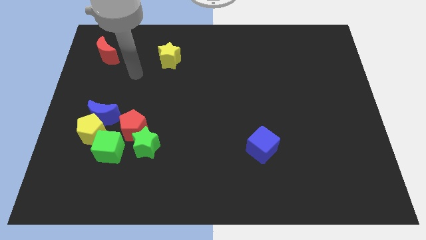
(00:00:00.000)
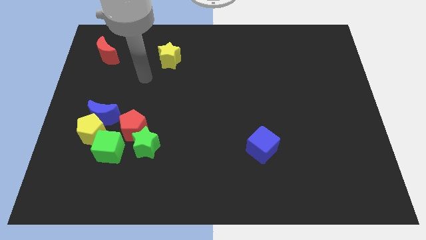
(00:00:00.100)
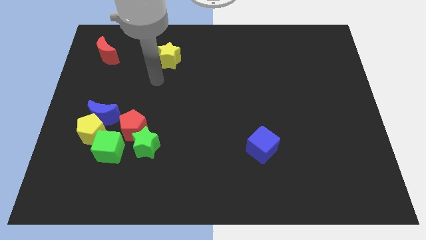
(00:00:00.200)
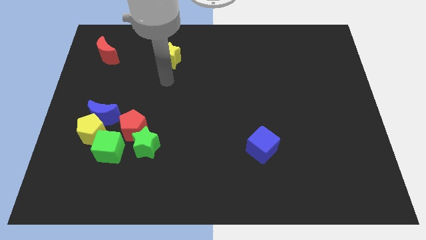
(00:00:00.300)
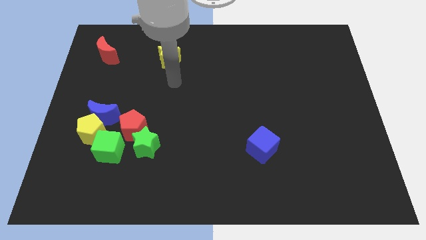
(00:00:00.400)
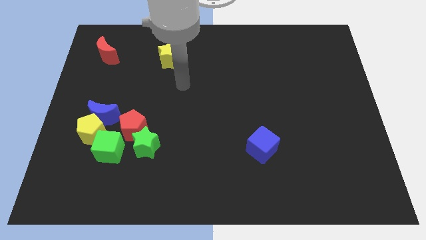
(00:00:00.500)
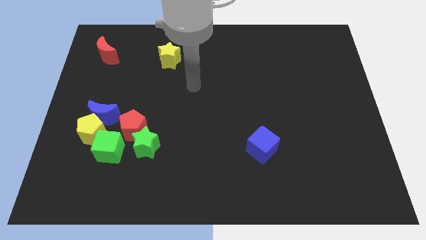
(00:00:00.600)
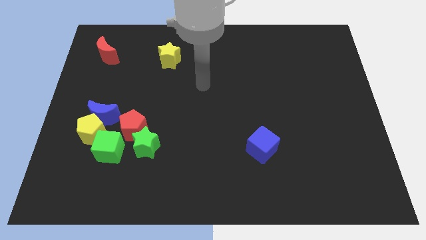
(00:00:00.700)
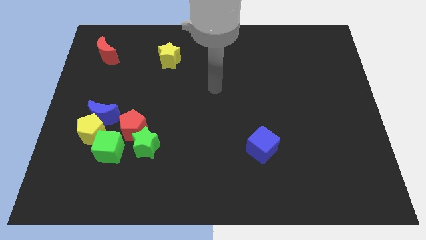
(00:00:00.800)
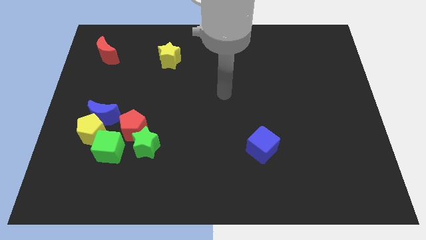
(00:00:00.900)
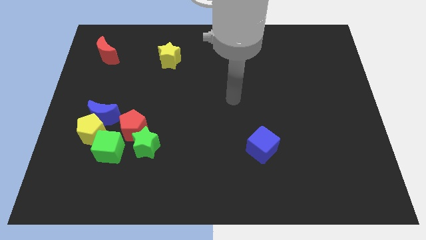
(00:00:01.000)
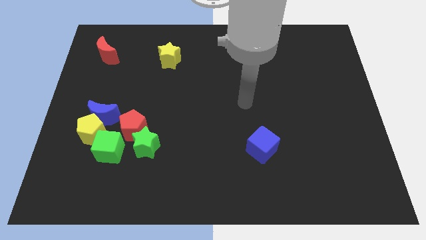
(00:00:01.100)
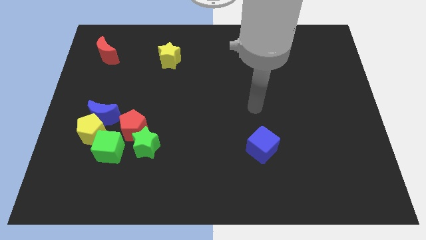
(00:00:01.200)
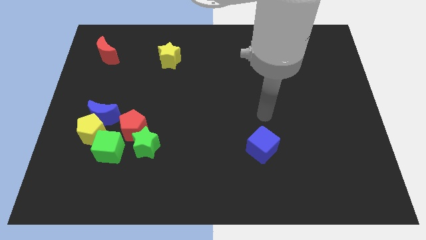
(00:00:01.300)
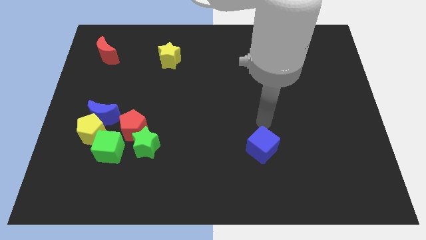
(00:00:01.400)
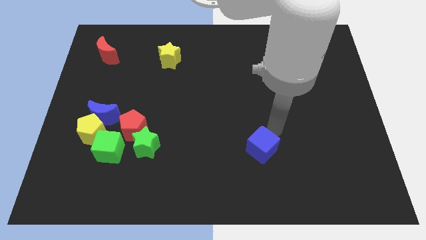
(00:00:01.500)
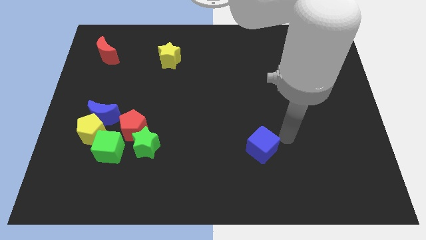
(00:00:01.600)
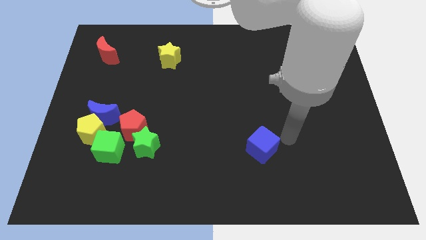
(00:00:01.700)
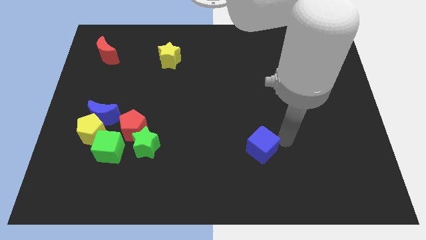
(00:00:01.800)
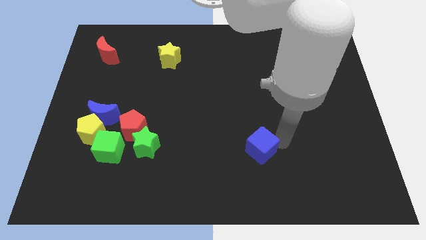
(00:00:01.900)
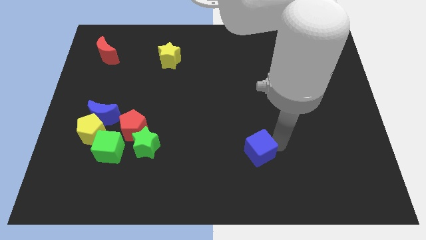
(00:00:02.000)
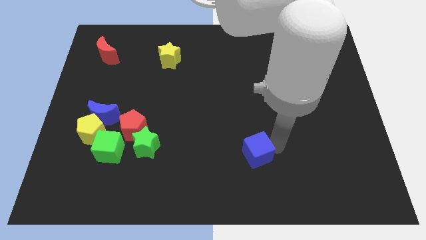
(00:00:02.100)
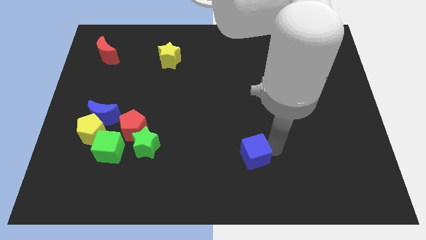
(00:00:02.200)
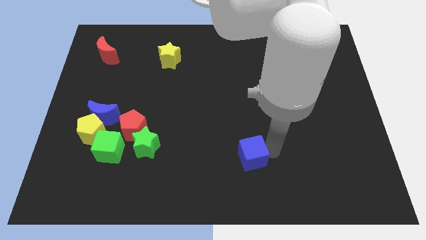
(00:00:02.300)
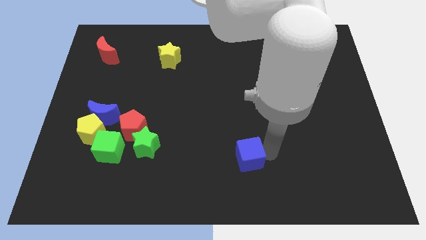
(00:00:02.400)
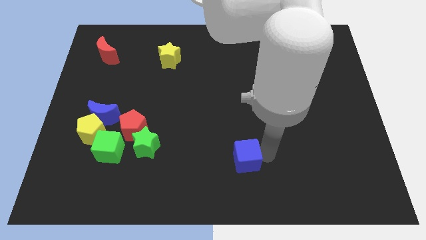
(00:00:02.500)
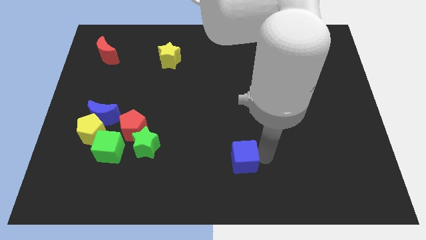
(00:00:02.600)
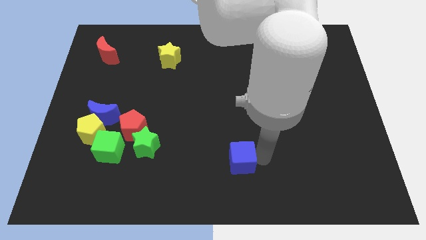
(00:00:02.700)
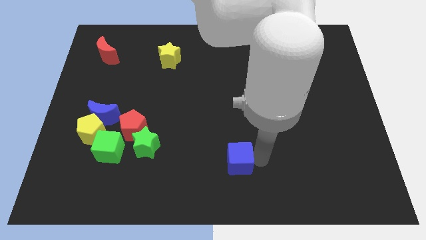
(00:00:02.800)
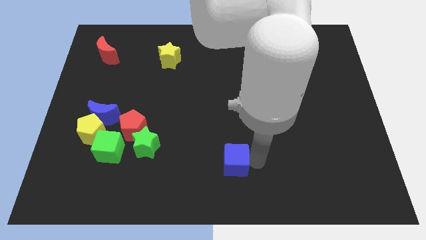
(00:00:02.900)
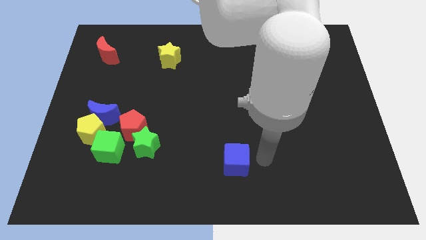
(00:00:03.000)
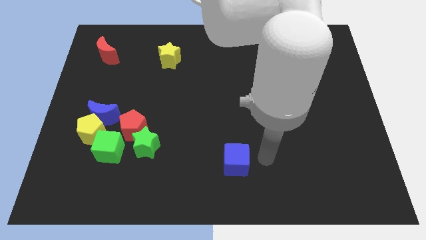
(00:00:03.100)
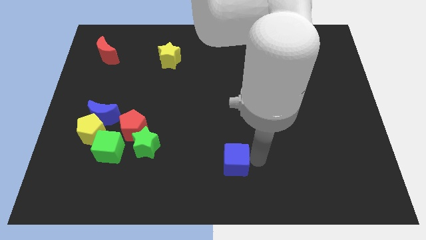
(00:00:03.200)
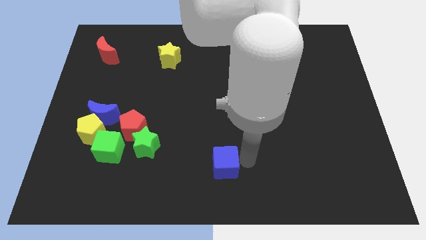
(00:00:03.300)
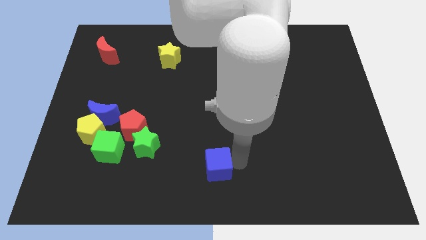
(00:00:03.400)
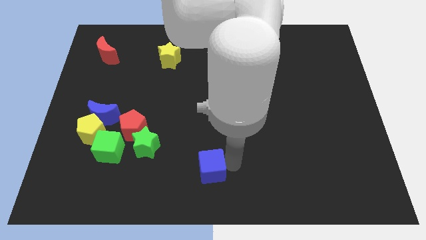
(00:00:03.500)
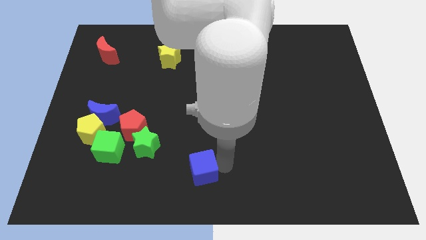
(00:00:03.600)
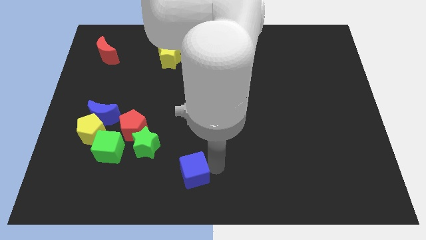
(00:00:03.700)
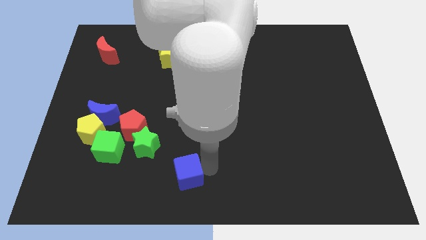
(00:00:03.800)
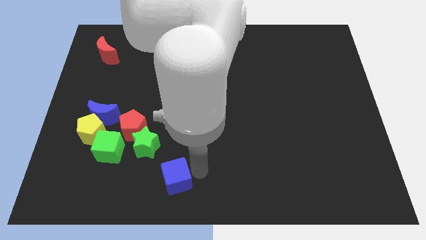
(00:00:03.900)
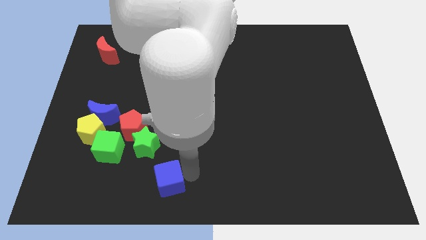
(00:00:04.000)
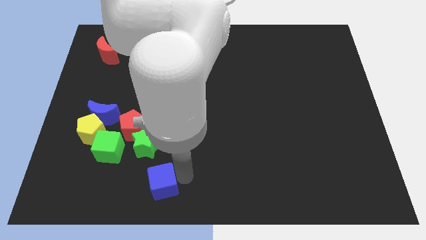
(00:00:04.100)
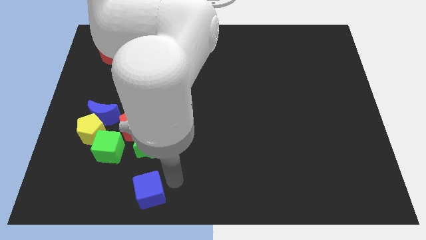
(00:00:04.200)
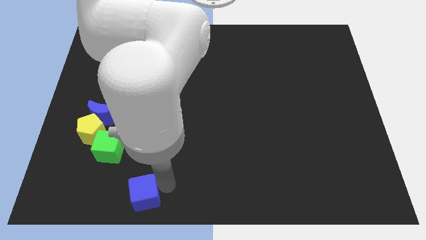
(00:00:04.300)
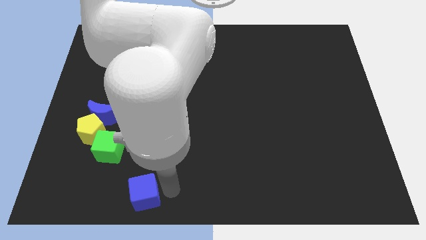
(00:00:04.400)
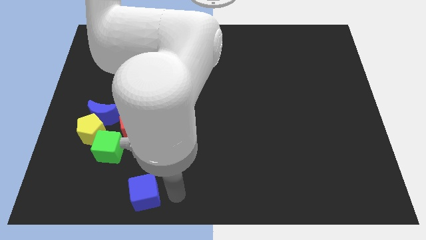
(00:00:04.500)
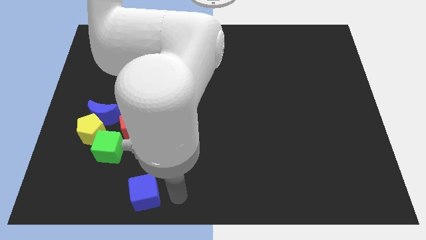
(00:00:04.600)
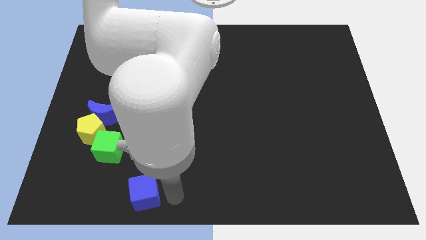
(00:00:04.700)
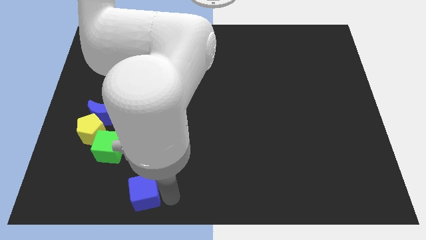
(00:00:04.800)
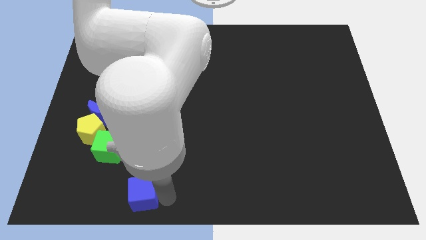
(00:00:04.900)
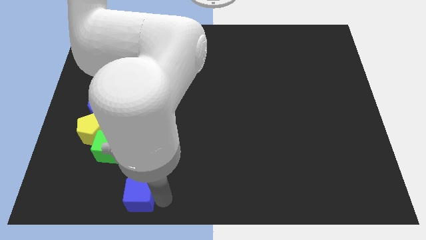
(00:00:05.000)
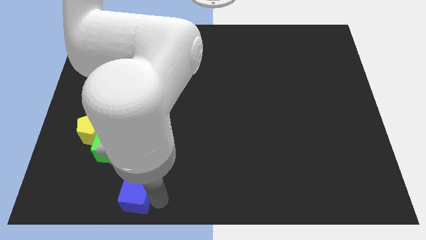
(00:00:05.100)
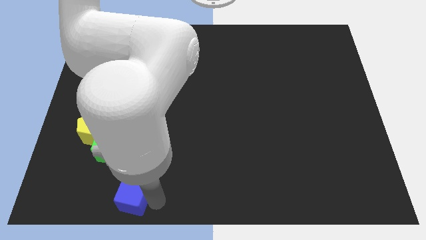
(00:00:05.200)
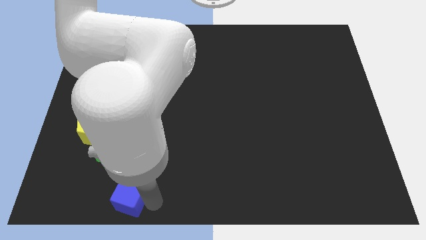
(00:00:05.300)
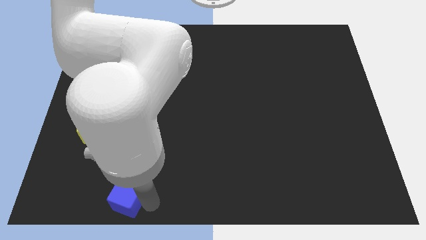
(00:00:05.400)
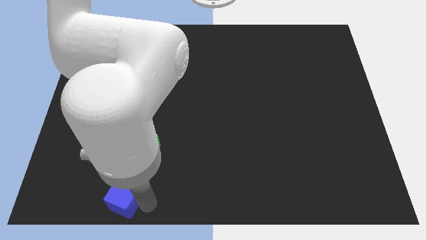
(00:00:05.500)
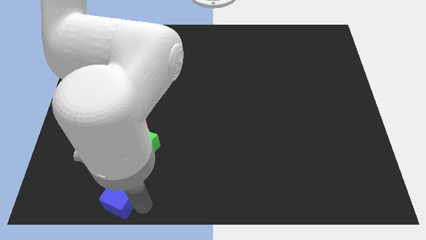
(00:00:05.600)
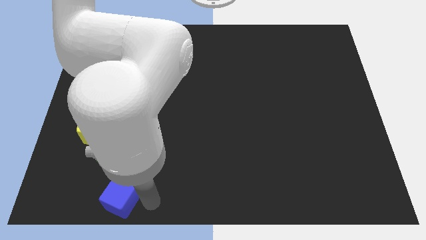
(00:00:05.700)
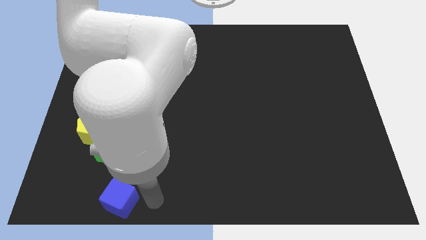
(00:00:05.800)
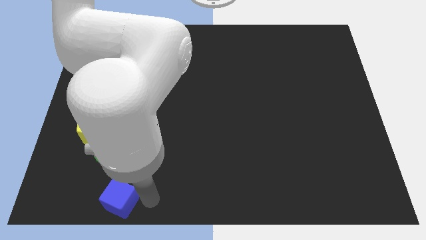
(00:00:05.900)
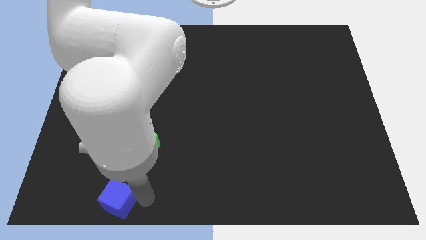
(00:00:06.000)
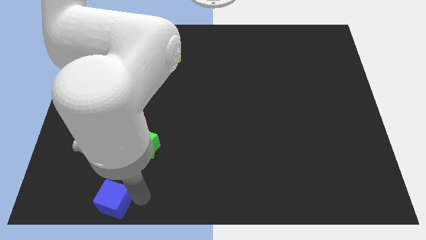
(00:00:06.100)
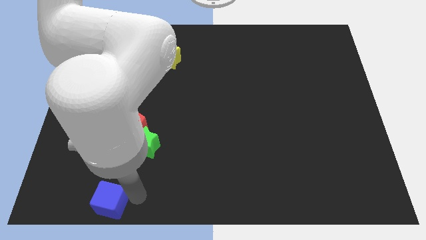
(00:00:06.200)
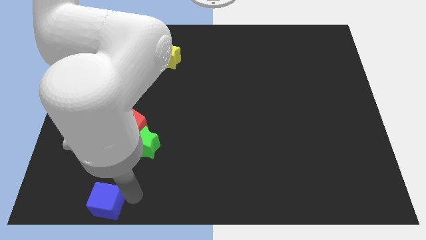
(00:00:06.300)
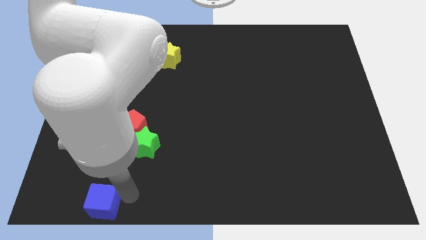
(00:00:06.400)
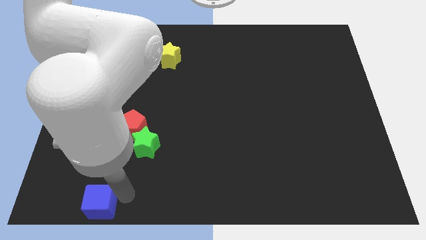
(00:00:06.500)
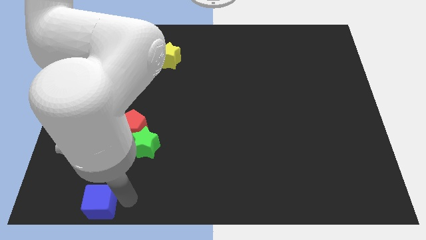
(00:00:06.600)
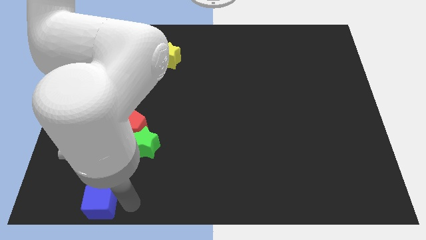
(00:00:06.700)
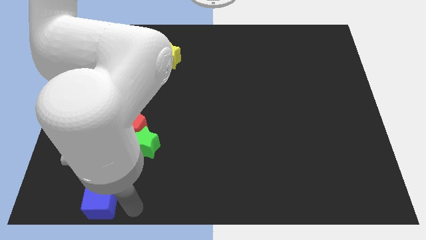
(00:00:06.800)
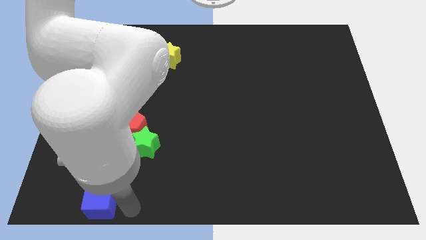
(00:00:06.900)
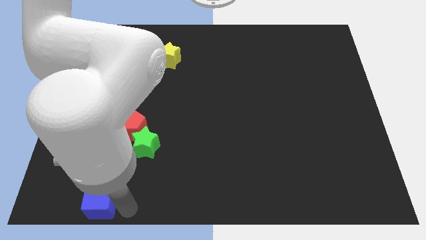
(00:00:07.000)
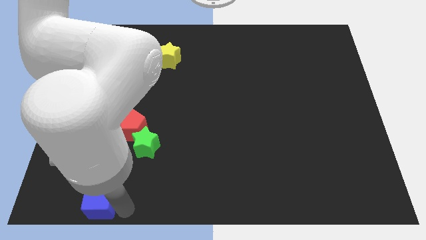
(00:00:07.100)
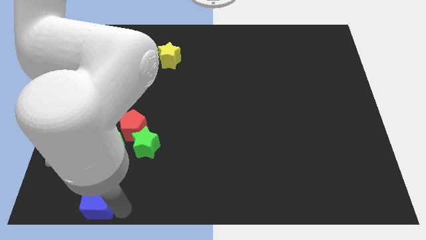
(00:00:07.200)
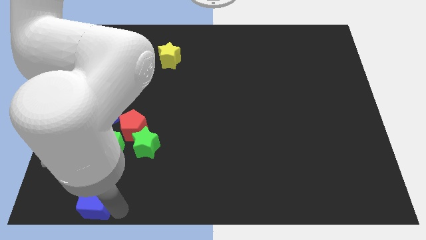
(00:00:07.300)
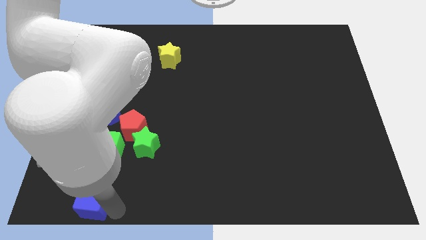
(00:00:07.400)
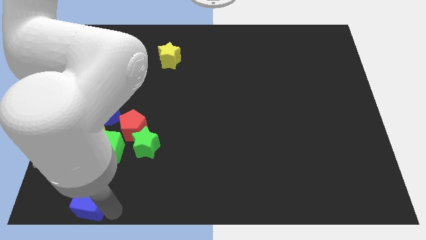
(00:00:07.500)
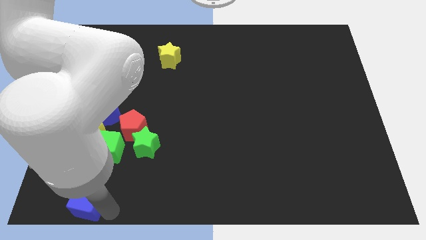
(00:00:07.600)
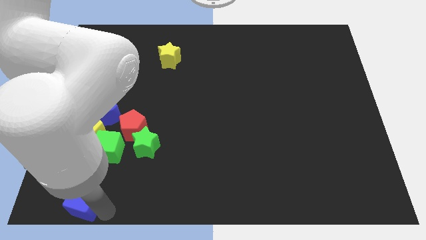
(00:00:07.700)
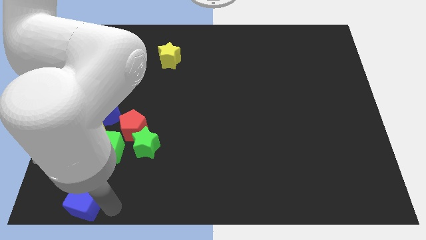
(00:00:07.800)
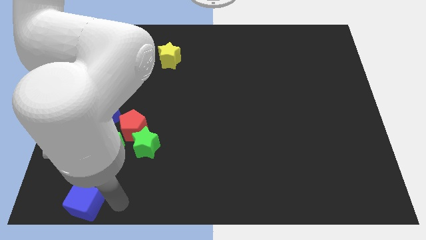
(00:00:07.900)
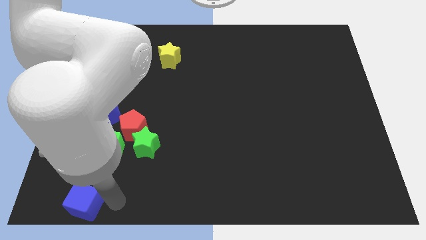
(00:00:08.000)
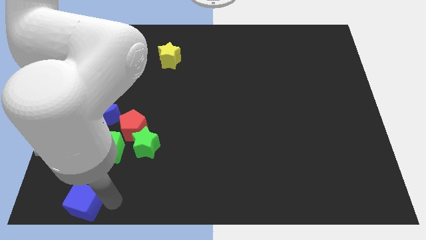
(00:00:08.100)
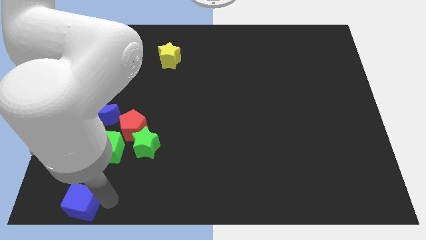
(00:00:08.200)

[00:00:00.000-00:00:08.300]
push the blue cube to the bottom left
